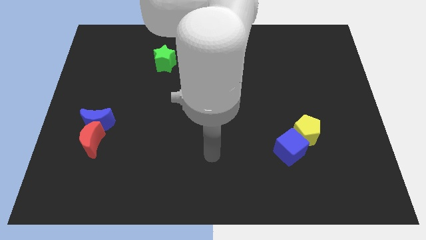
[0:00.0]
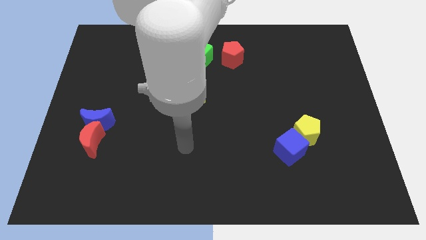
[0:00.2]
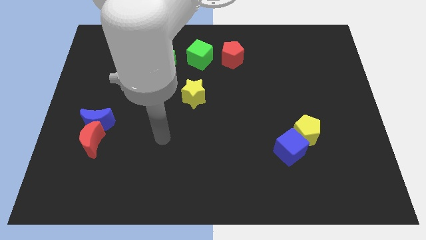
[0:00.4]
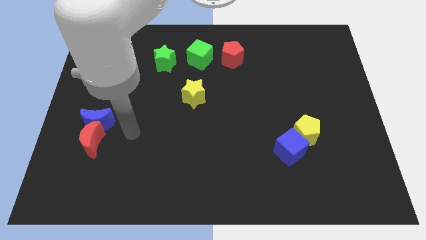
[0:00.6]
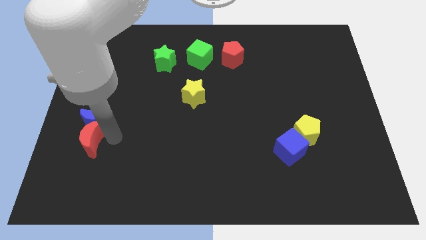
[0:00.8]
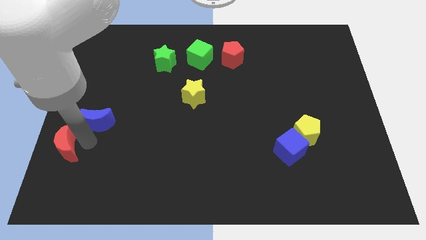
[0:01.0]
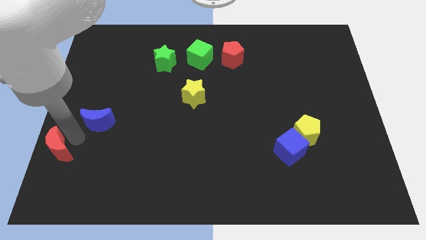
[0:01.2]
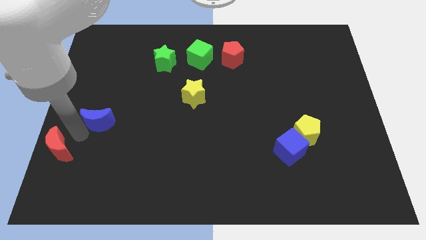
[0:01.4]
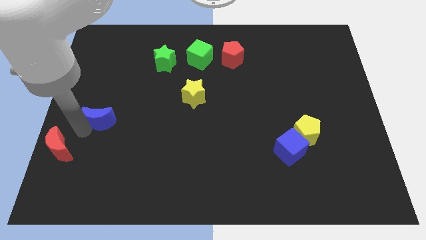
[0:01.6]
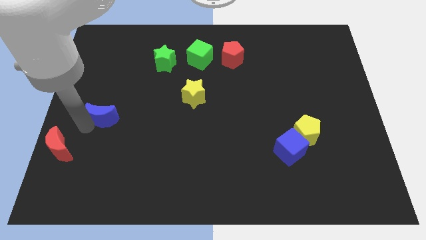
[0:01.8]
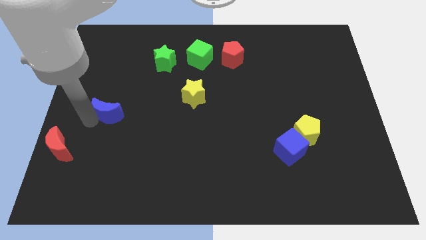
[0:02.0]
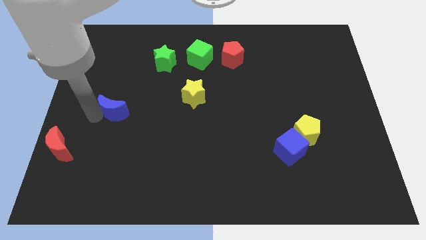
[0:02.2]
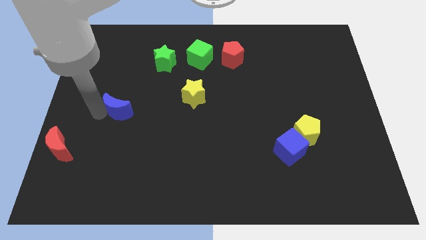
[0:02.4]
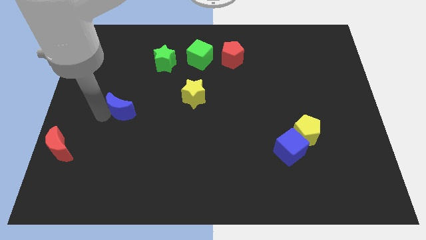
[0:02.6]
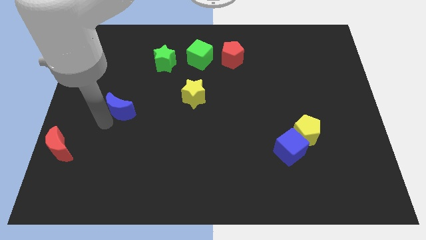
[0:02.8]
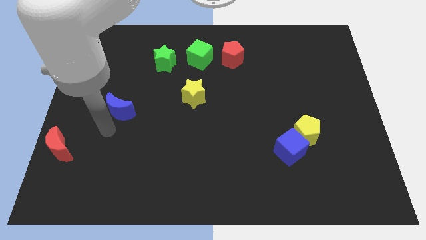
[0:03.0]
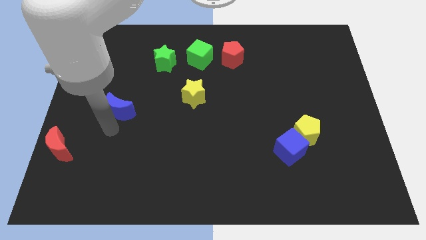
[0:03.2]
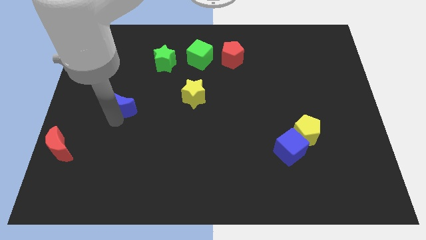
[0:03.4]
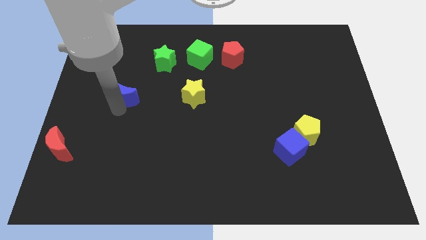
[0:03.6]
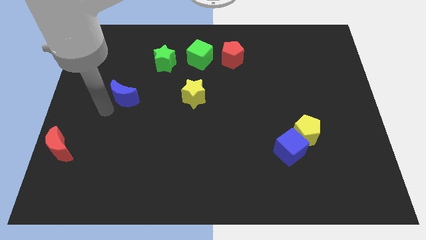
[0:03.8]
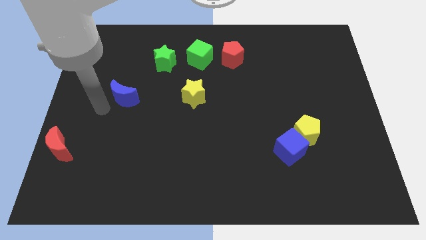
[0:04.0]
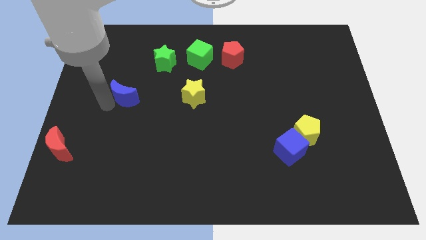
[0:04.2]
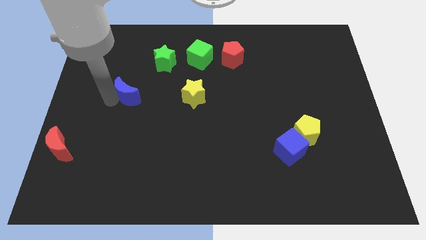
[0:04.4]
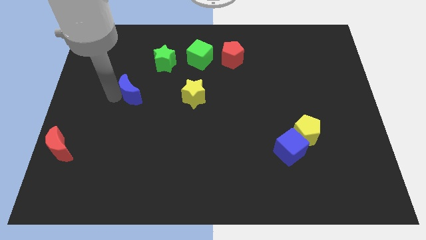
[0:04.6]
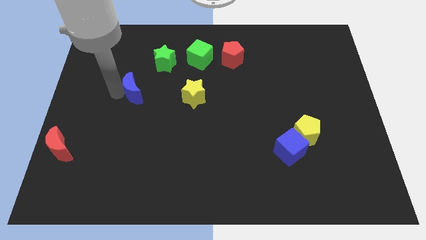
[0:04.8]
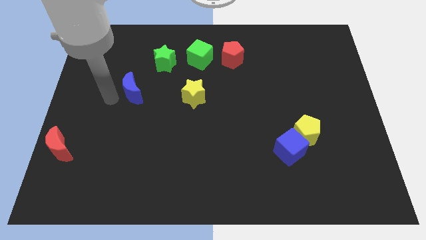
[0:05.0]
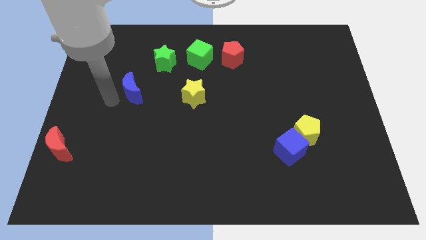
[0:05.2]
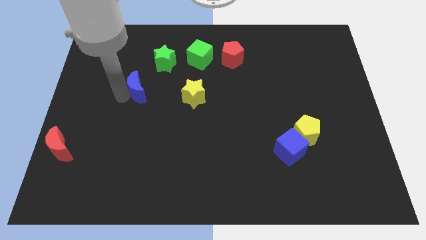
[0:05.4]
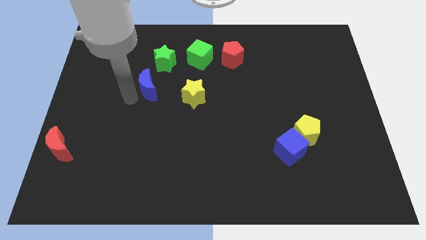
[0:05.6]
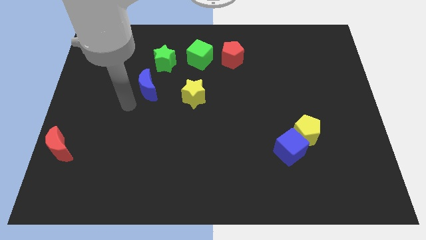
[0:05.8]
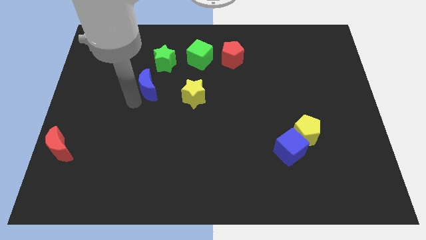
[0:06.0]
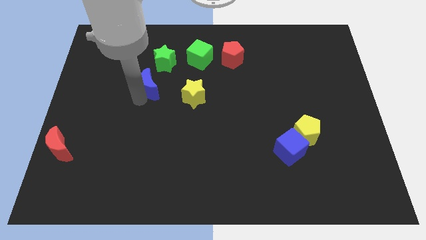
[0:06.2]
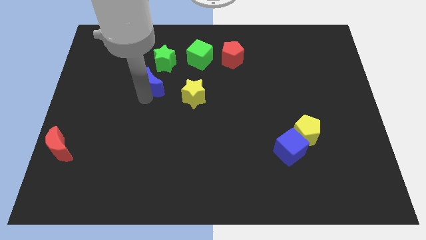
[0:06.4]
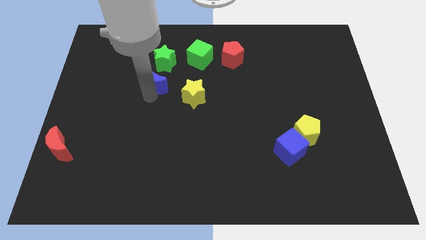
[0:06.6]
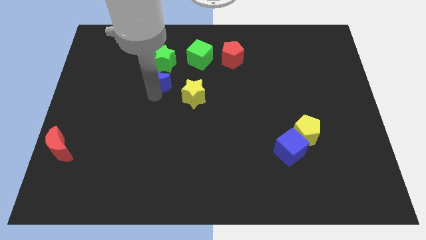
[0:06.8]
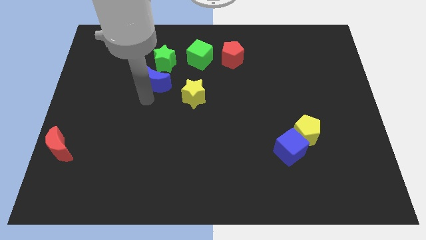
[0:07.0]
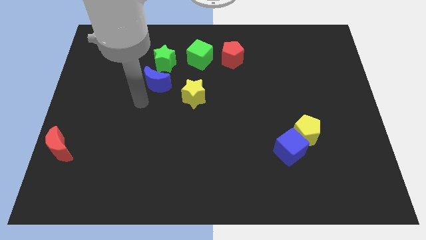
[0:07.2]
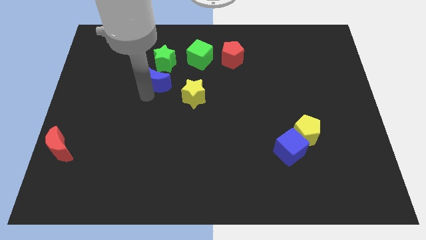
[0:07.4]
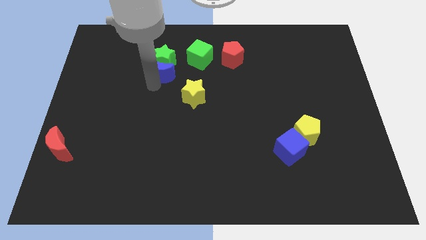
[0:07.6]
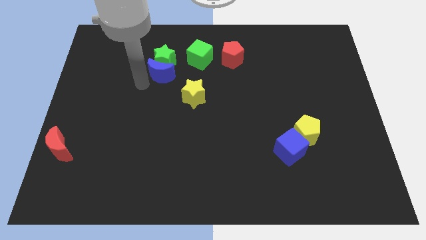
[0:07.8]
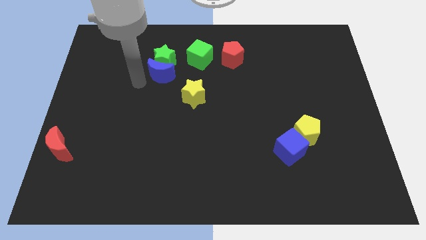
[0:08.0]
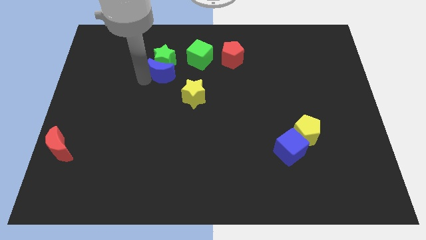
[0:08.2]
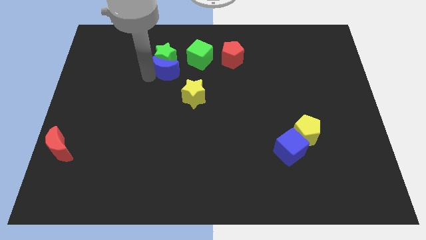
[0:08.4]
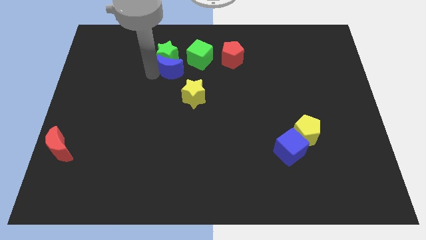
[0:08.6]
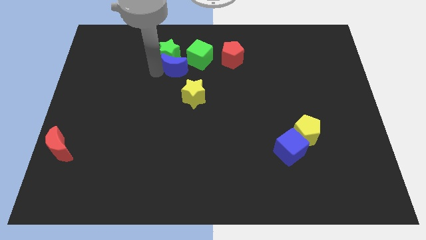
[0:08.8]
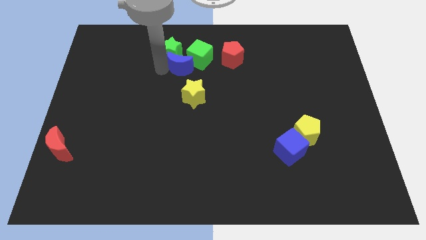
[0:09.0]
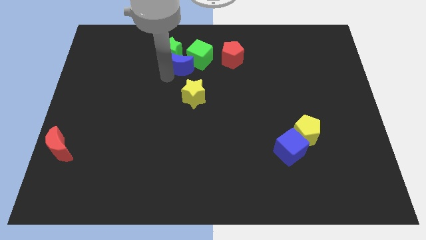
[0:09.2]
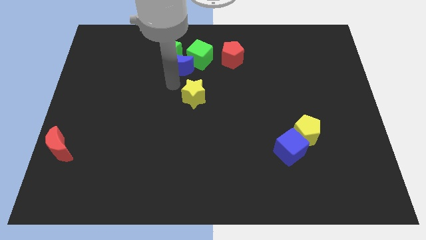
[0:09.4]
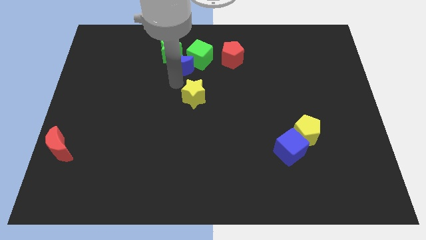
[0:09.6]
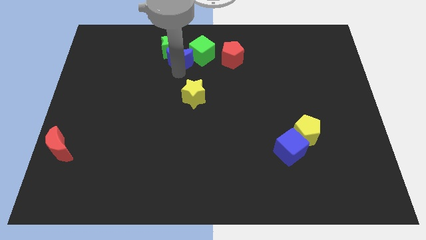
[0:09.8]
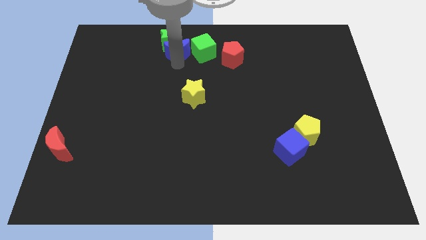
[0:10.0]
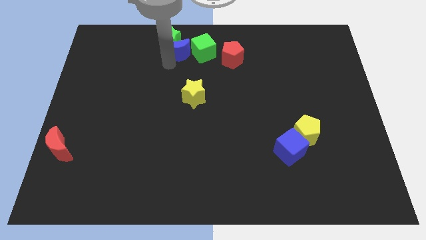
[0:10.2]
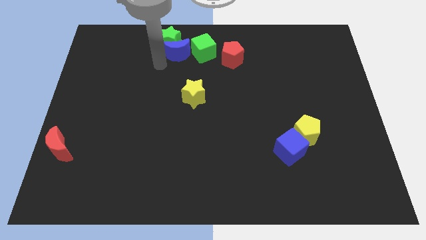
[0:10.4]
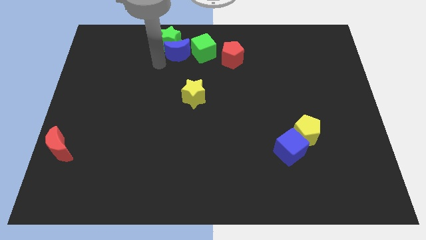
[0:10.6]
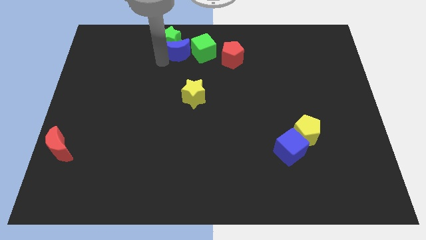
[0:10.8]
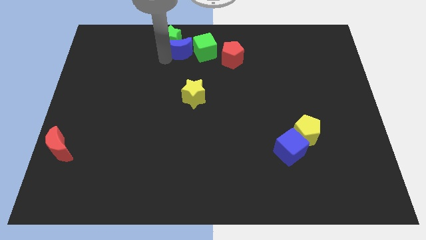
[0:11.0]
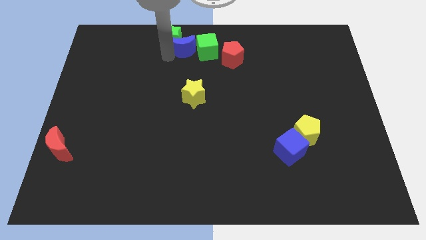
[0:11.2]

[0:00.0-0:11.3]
push the blue moon to the towards your base
